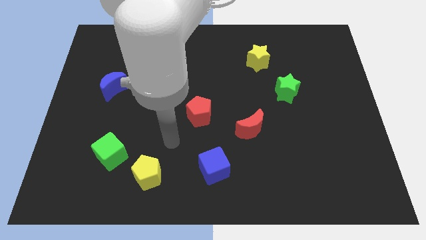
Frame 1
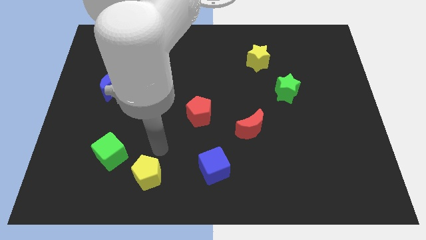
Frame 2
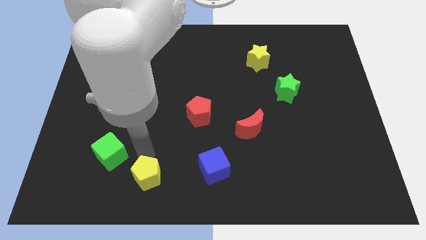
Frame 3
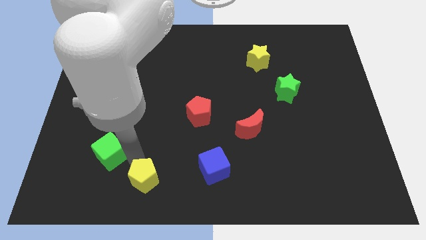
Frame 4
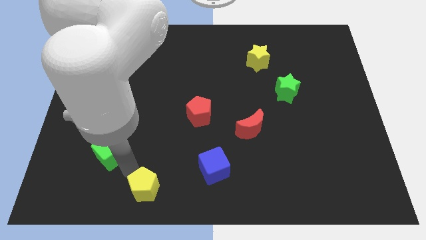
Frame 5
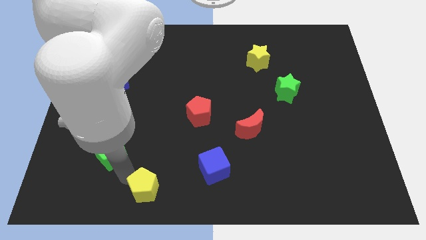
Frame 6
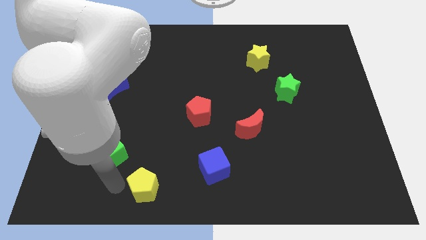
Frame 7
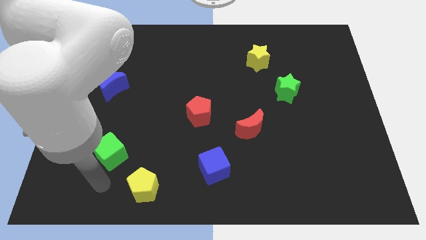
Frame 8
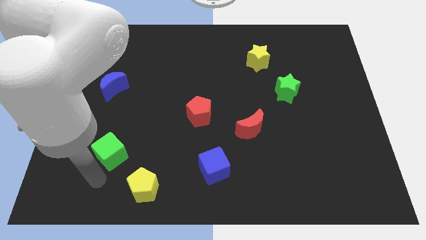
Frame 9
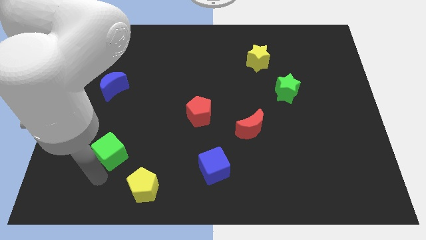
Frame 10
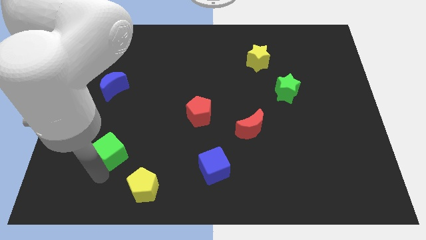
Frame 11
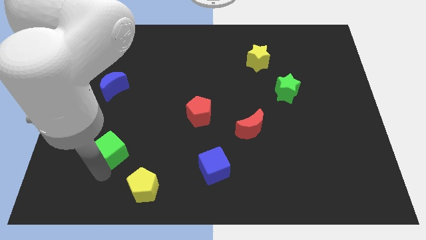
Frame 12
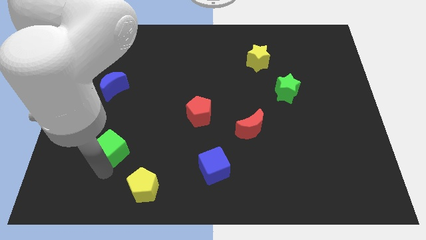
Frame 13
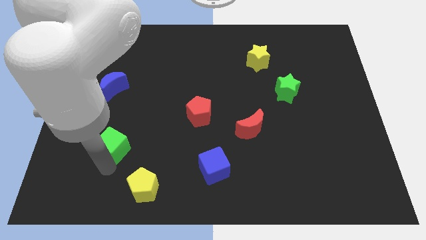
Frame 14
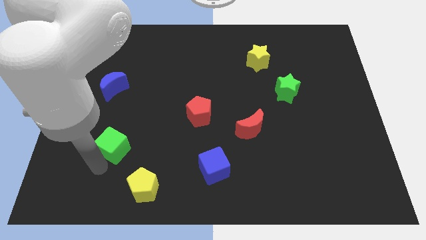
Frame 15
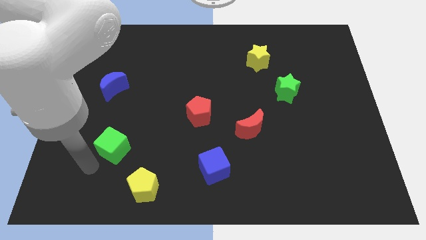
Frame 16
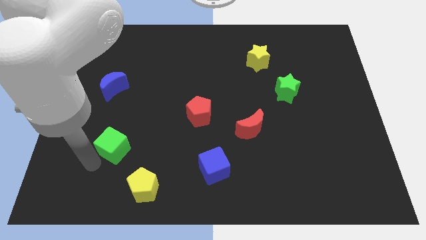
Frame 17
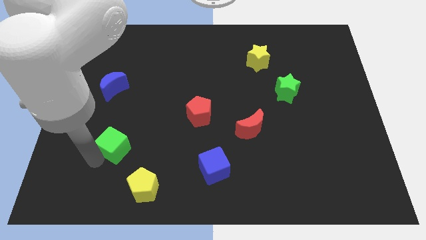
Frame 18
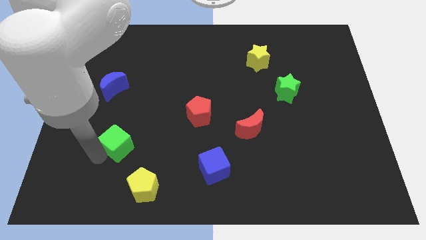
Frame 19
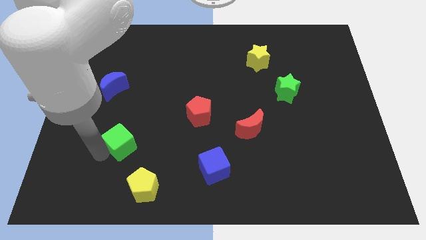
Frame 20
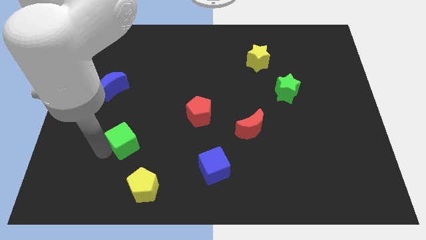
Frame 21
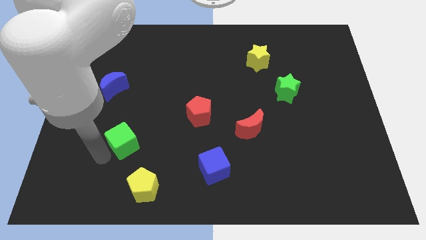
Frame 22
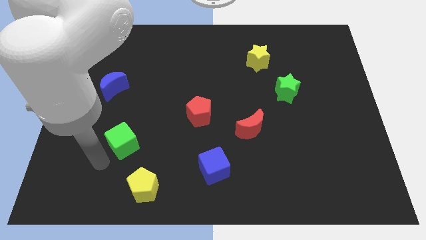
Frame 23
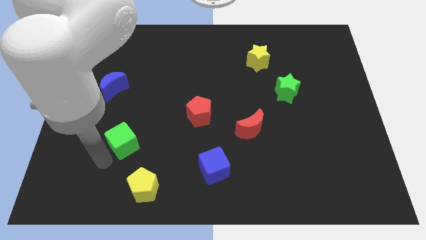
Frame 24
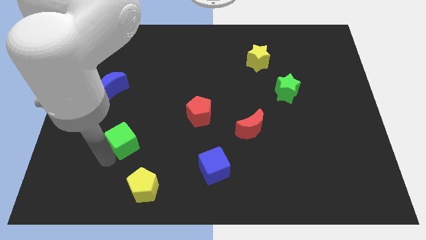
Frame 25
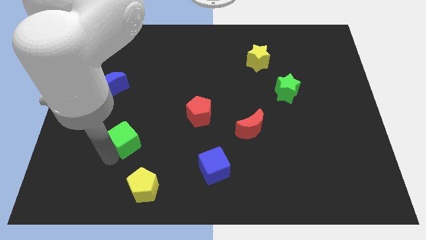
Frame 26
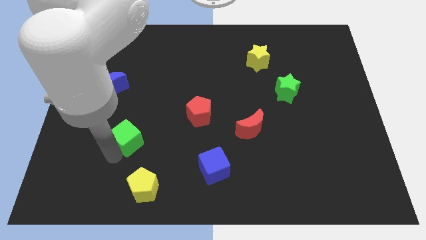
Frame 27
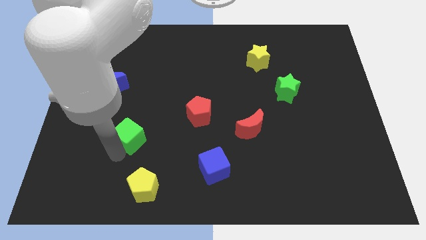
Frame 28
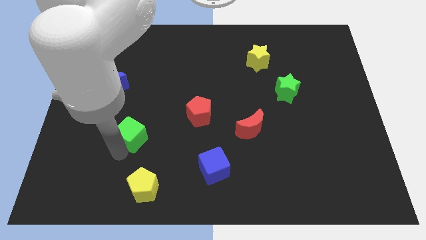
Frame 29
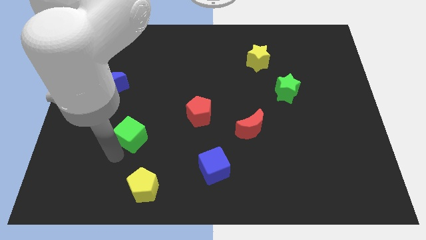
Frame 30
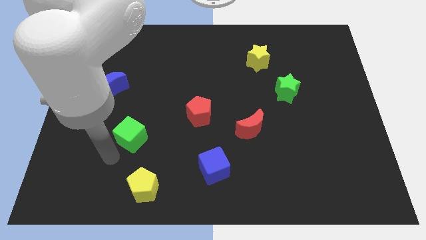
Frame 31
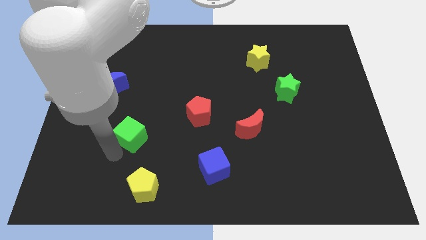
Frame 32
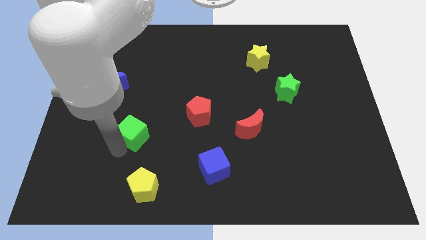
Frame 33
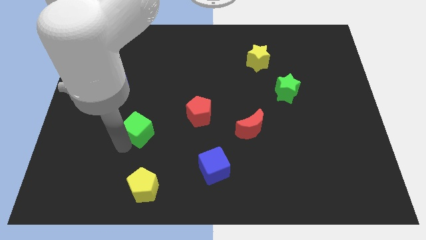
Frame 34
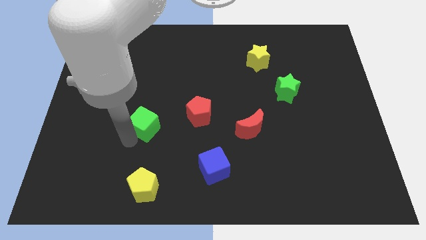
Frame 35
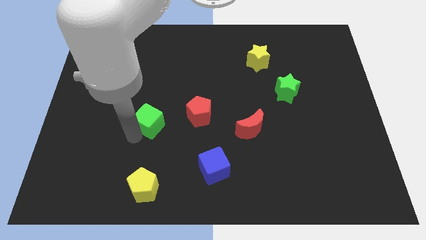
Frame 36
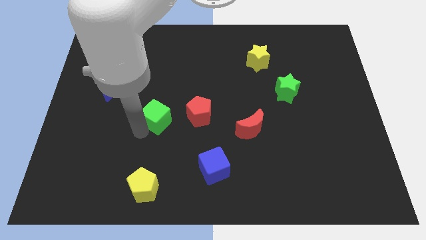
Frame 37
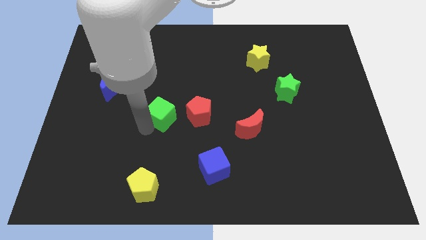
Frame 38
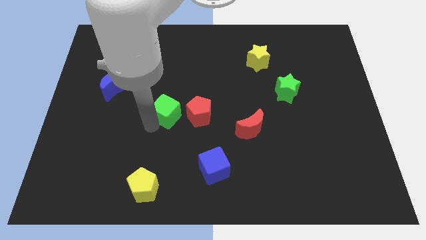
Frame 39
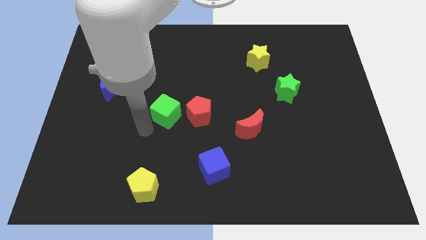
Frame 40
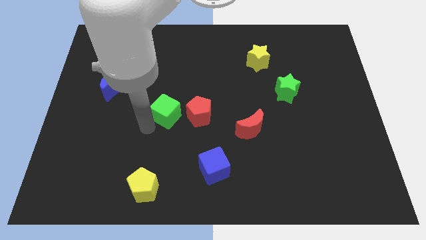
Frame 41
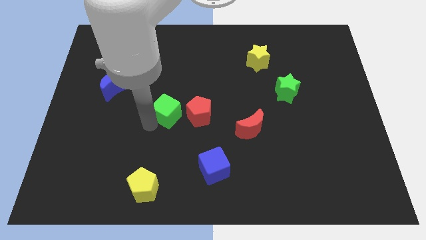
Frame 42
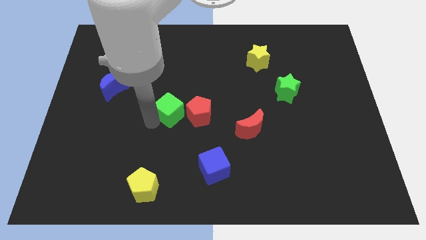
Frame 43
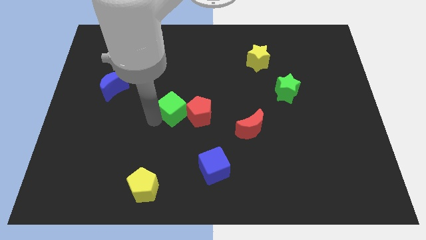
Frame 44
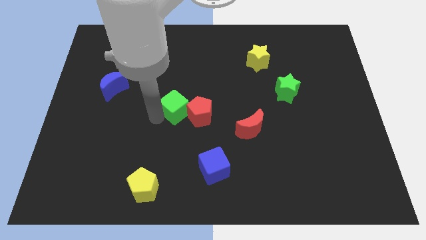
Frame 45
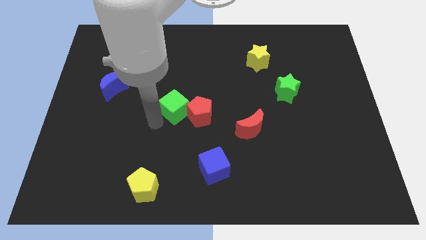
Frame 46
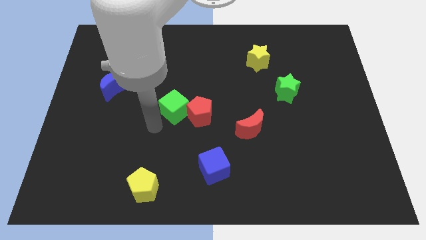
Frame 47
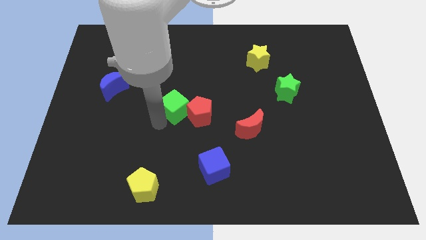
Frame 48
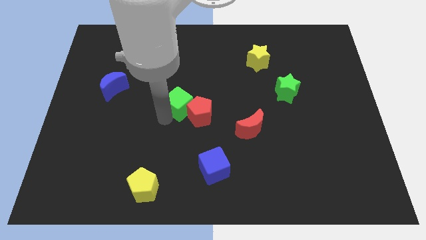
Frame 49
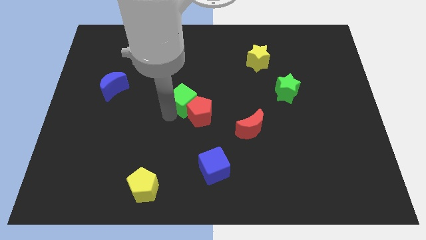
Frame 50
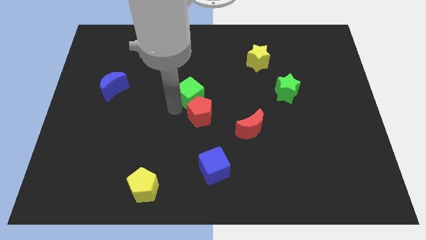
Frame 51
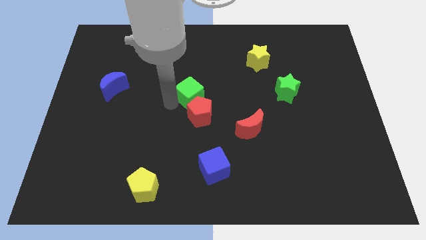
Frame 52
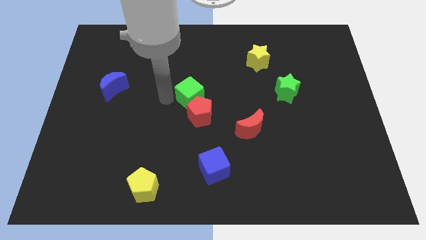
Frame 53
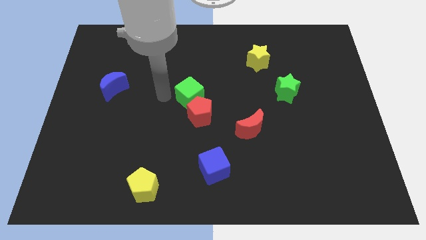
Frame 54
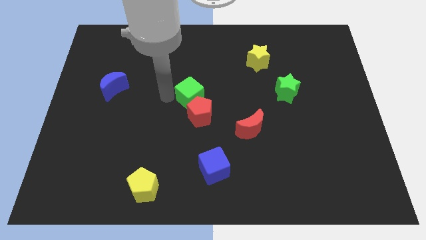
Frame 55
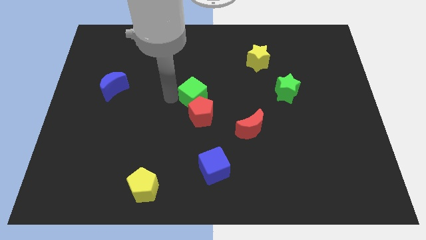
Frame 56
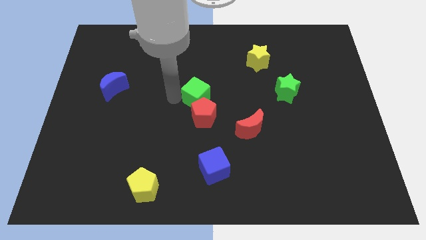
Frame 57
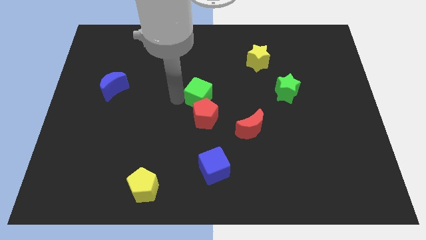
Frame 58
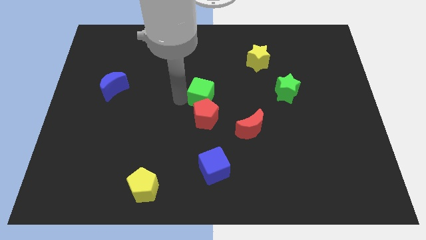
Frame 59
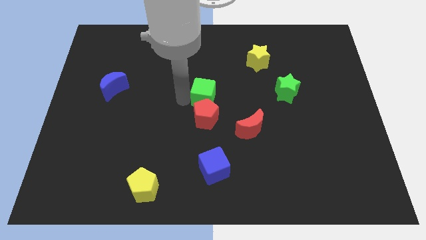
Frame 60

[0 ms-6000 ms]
move the green cube to the top right side of the red pentagon

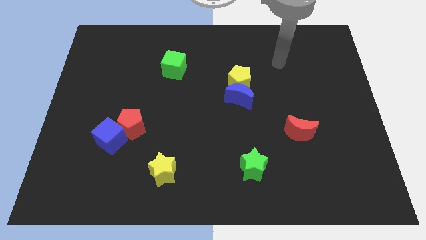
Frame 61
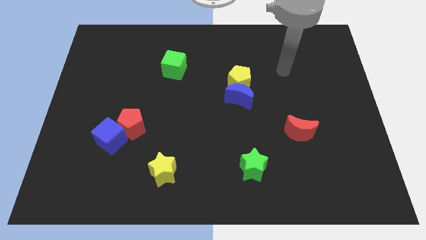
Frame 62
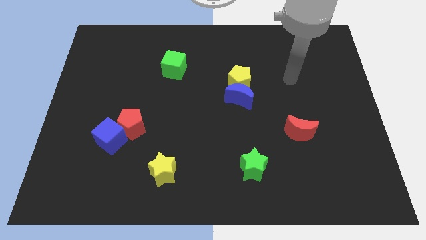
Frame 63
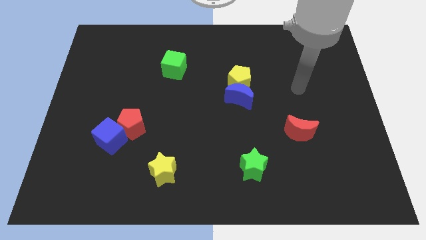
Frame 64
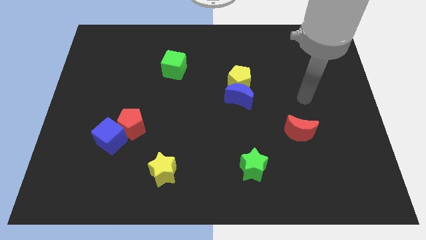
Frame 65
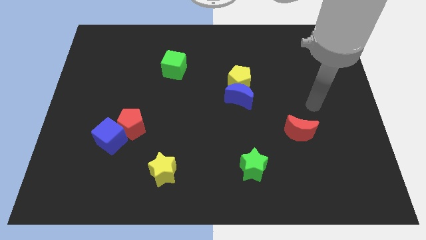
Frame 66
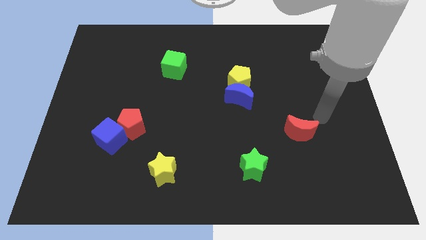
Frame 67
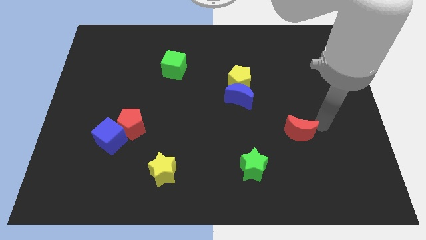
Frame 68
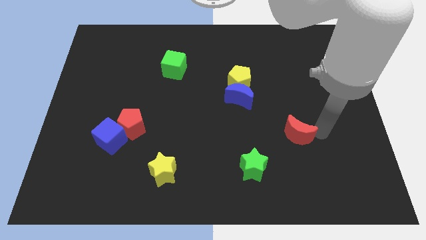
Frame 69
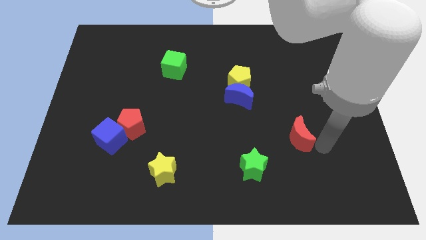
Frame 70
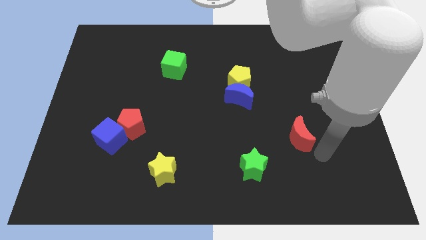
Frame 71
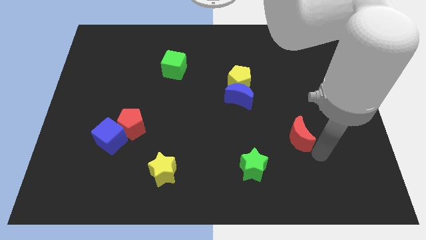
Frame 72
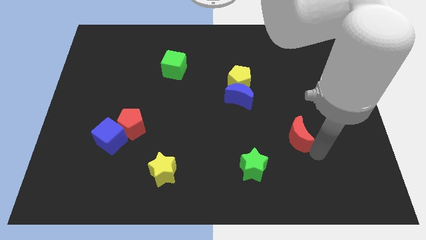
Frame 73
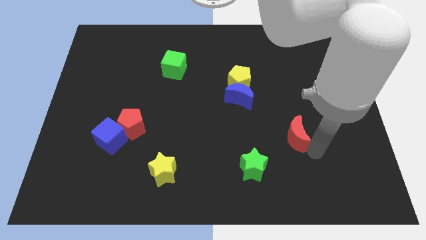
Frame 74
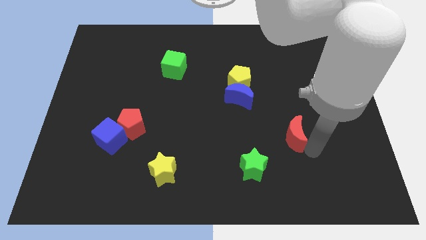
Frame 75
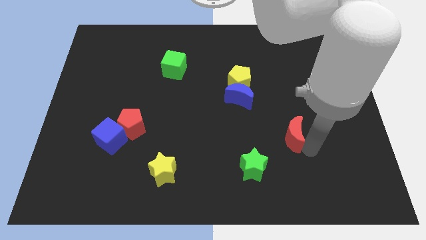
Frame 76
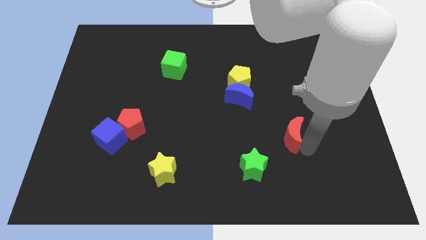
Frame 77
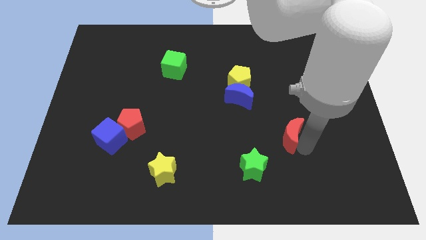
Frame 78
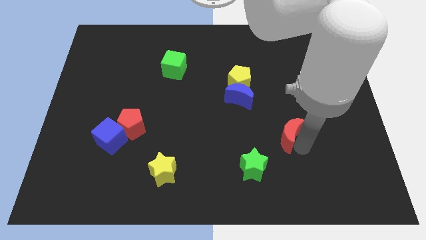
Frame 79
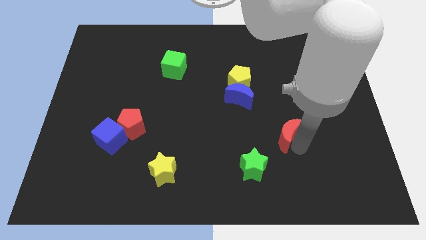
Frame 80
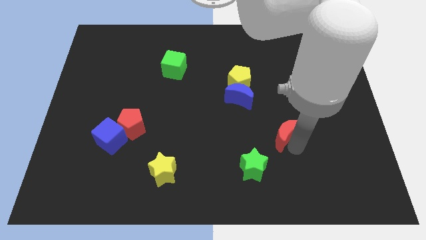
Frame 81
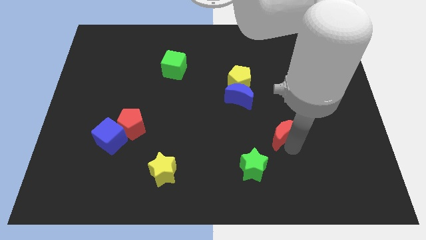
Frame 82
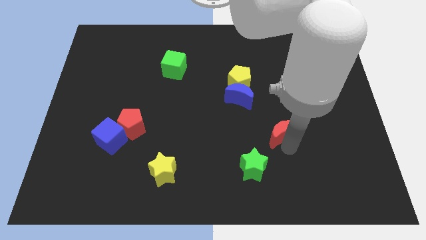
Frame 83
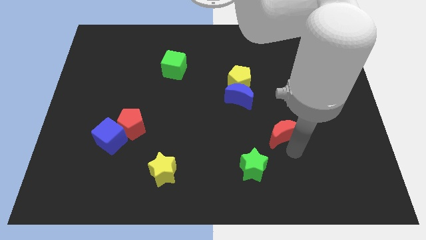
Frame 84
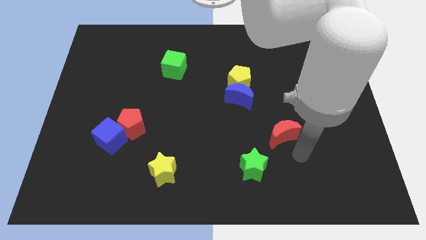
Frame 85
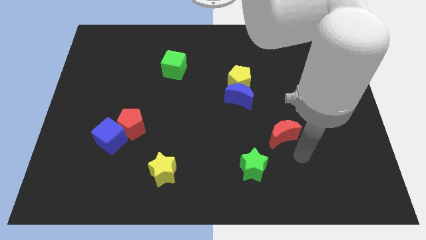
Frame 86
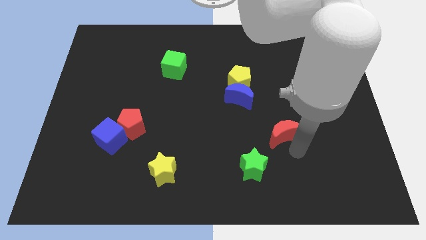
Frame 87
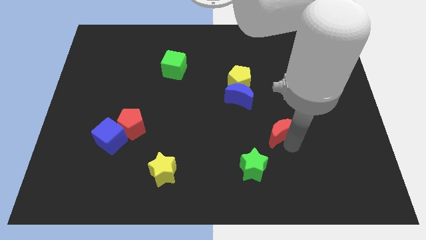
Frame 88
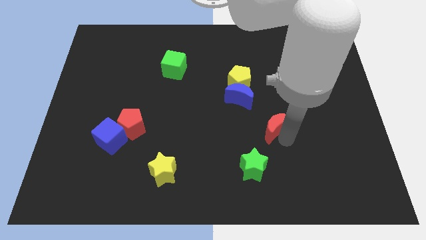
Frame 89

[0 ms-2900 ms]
move the red moon to the bottom right of the blue moon
